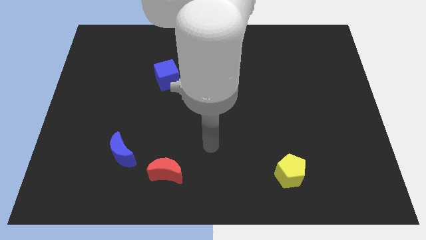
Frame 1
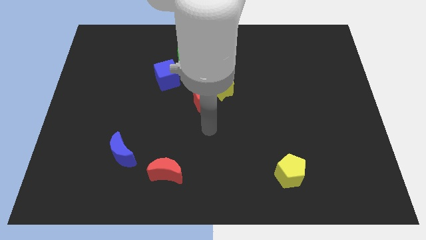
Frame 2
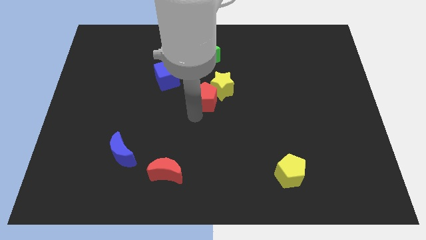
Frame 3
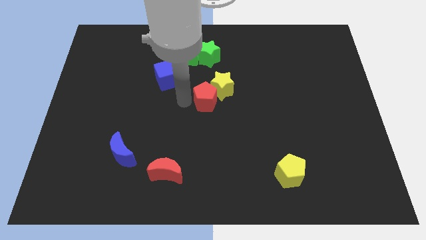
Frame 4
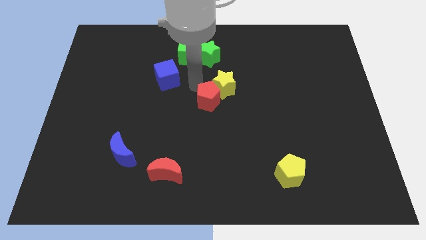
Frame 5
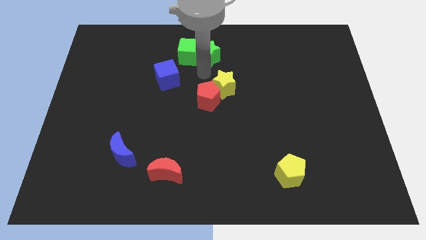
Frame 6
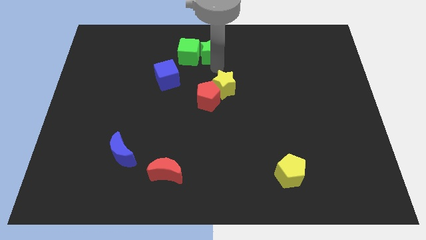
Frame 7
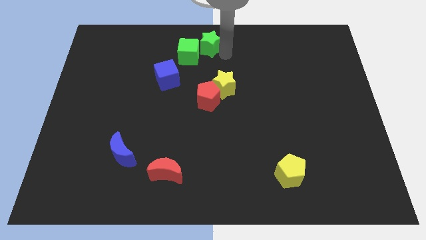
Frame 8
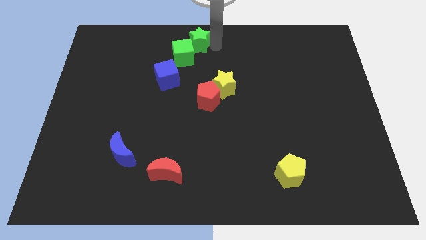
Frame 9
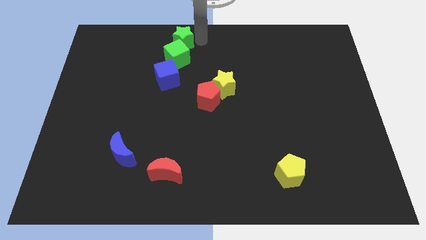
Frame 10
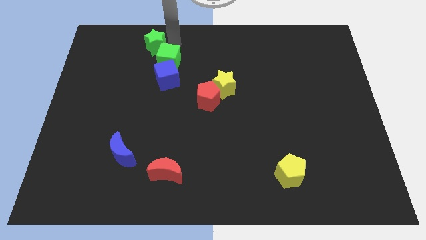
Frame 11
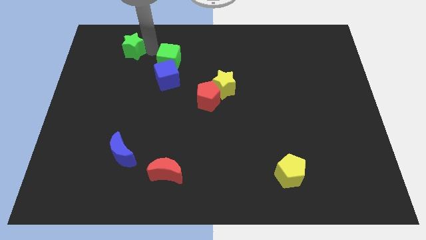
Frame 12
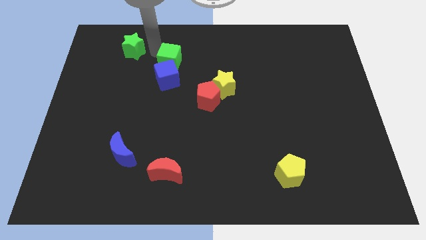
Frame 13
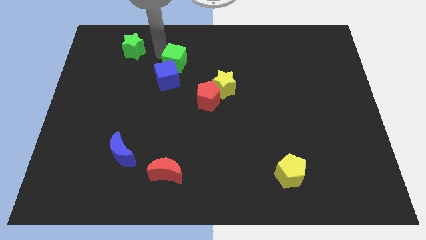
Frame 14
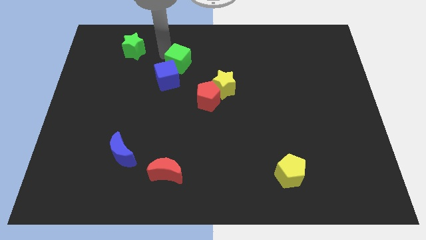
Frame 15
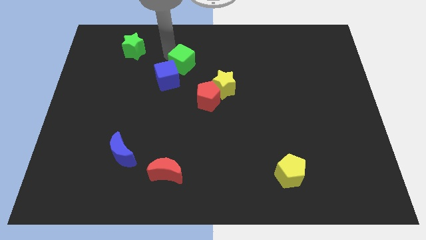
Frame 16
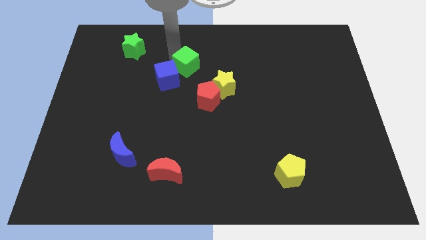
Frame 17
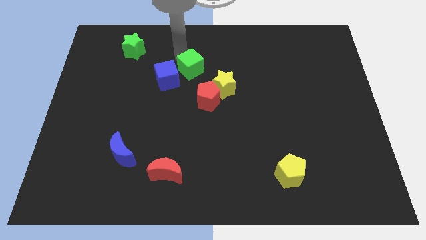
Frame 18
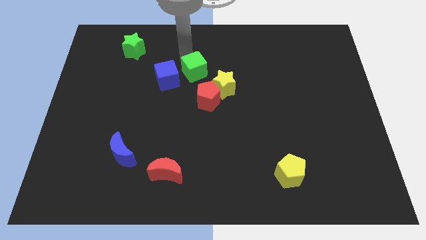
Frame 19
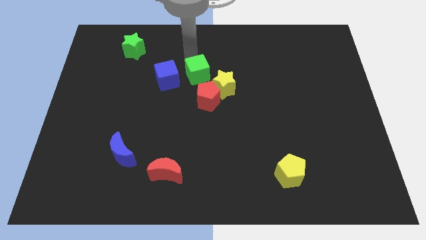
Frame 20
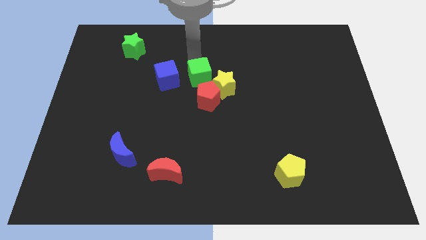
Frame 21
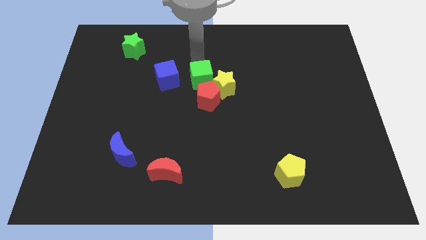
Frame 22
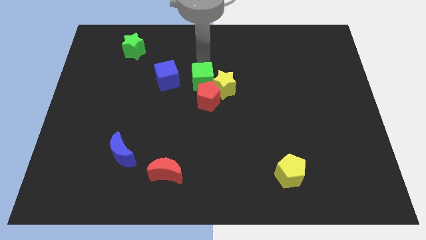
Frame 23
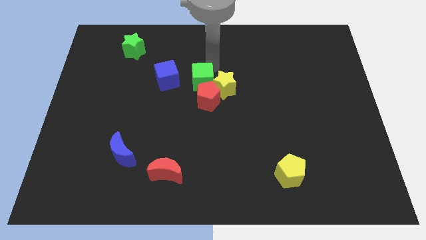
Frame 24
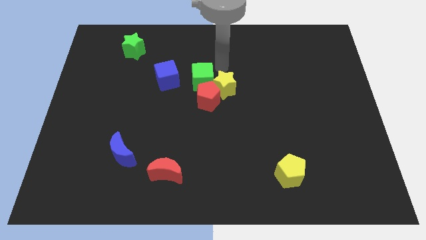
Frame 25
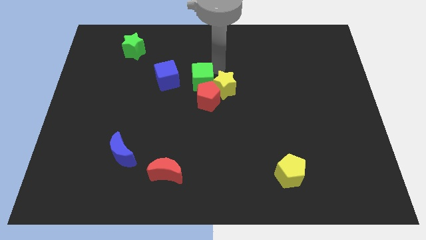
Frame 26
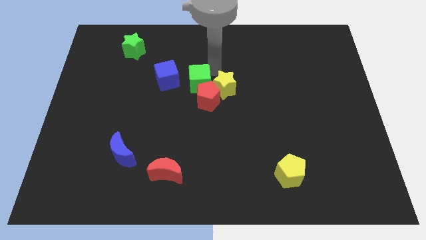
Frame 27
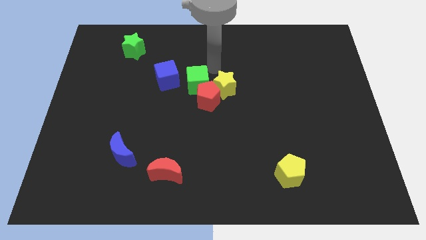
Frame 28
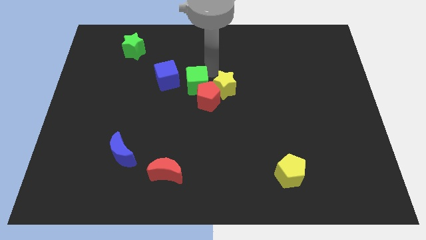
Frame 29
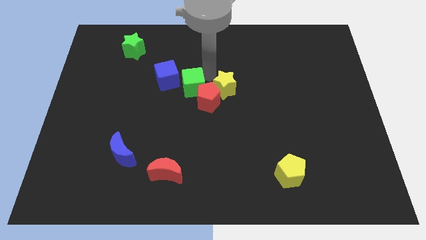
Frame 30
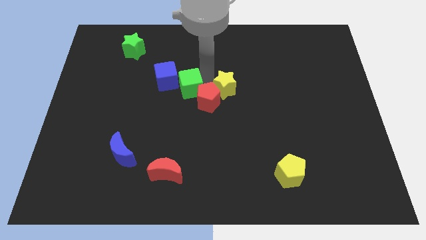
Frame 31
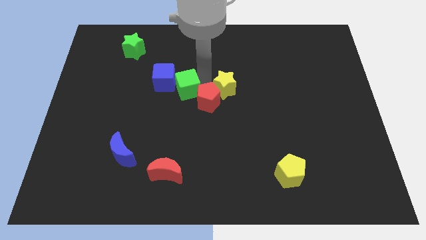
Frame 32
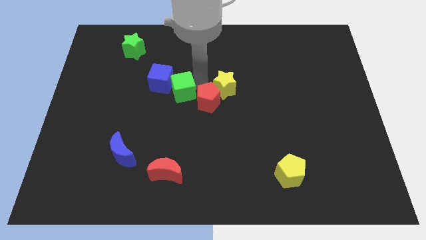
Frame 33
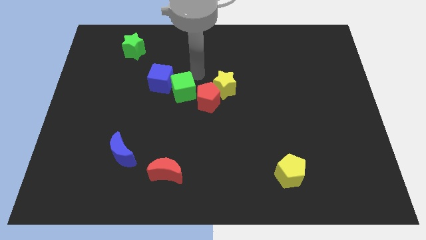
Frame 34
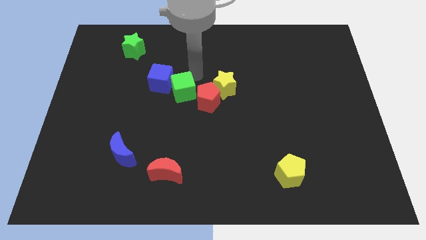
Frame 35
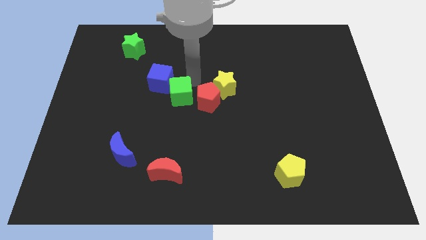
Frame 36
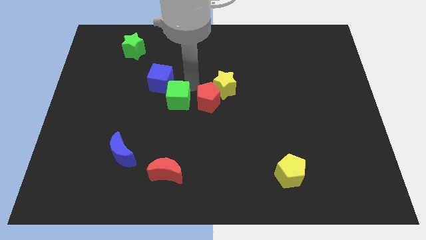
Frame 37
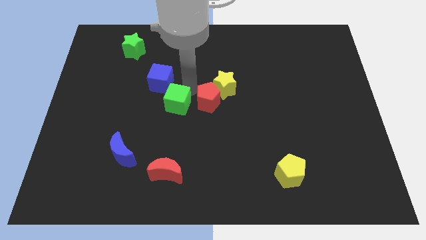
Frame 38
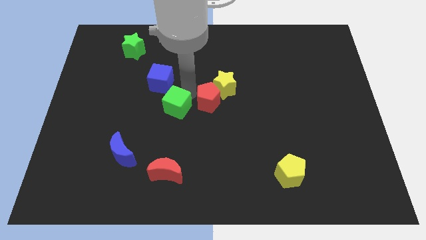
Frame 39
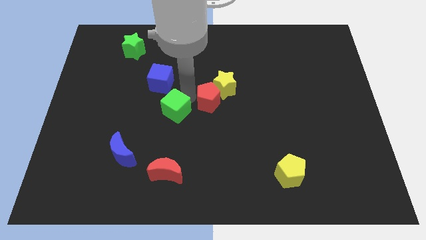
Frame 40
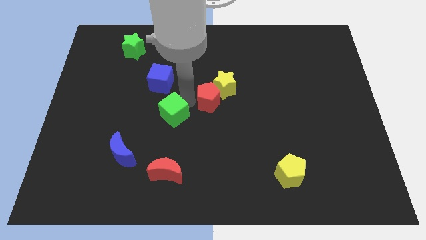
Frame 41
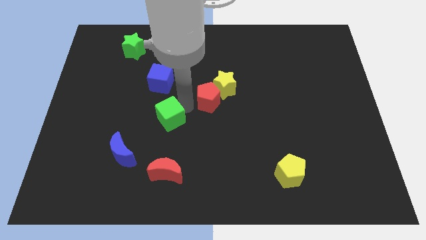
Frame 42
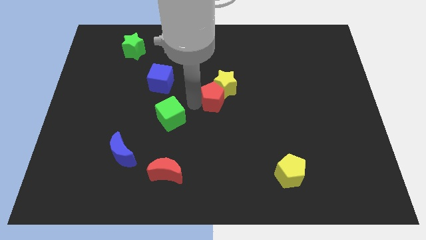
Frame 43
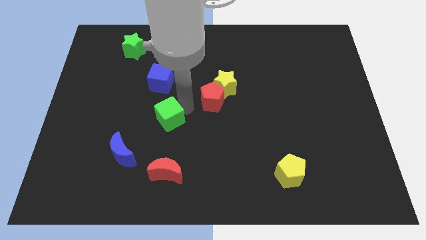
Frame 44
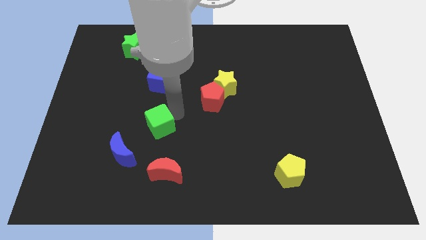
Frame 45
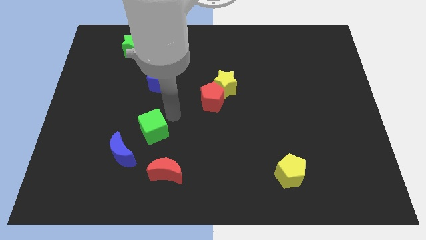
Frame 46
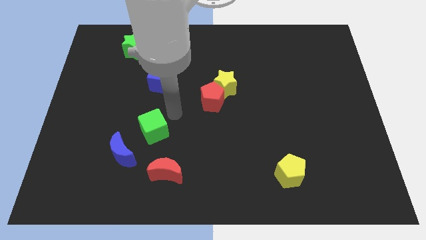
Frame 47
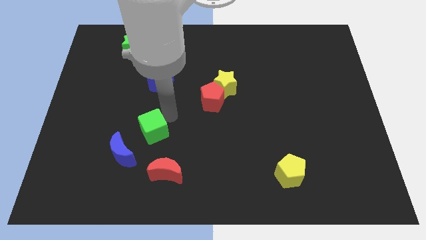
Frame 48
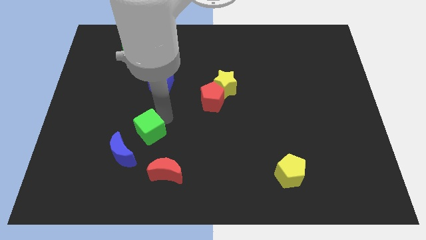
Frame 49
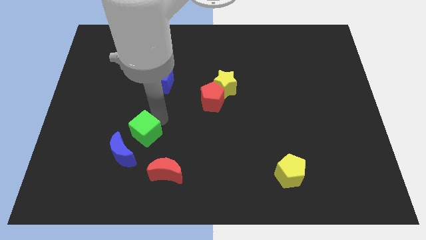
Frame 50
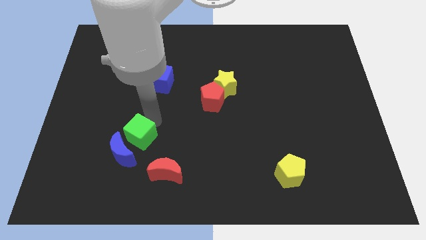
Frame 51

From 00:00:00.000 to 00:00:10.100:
put the green cube close to the blue moon

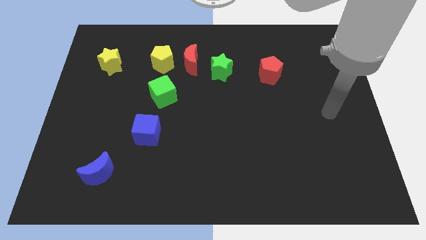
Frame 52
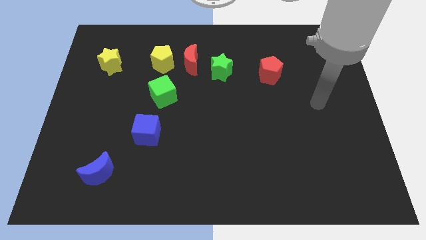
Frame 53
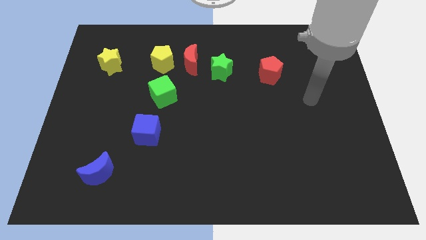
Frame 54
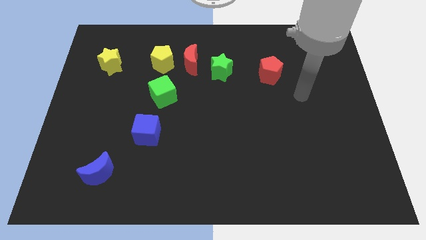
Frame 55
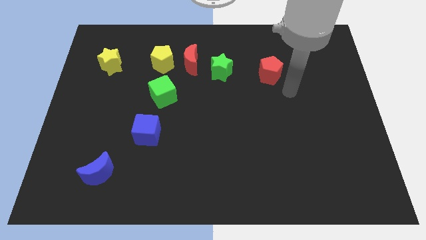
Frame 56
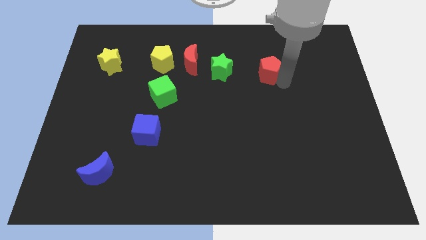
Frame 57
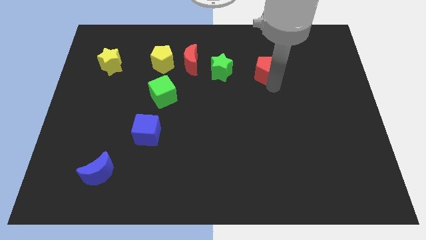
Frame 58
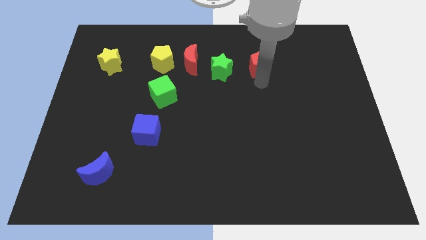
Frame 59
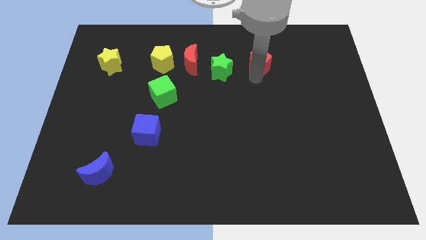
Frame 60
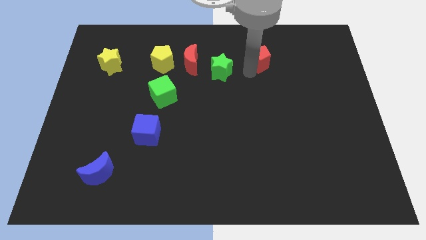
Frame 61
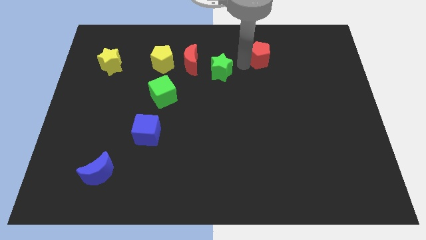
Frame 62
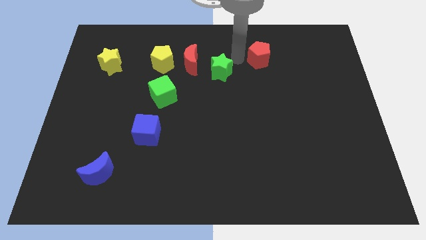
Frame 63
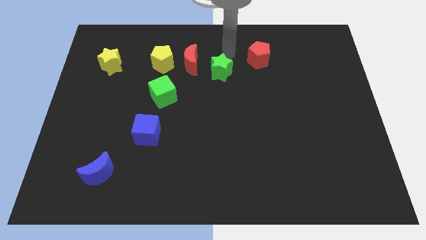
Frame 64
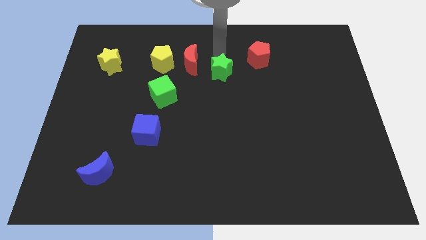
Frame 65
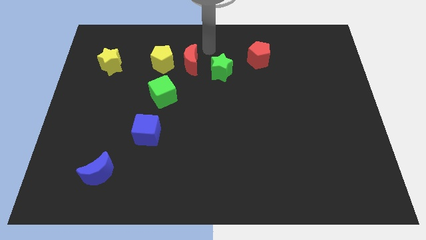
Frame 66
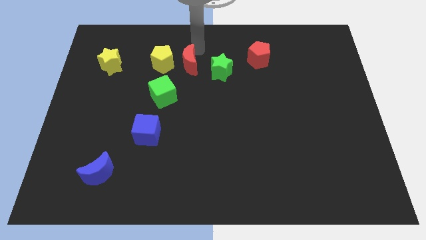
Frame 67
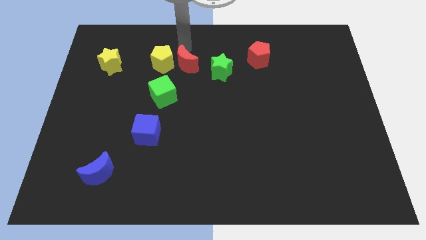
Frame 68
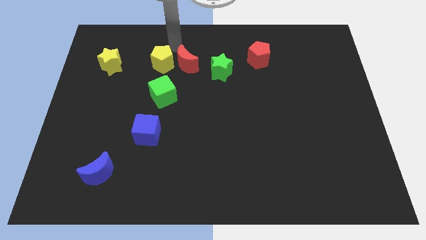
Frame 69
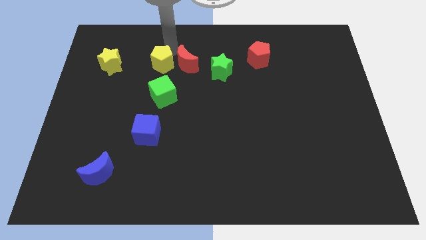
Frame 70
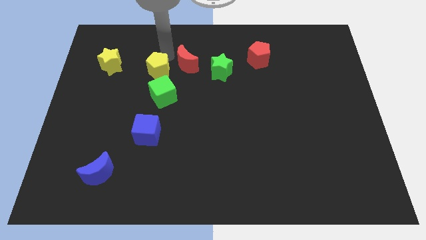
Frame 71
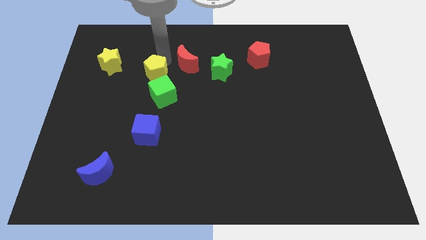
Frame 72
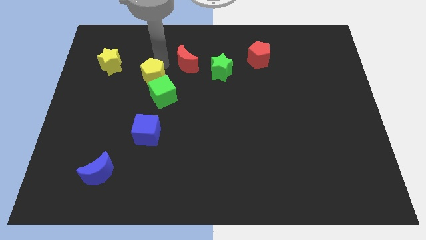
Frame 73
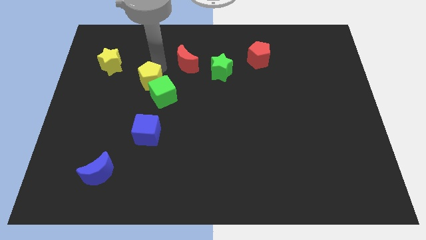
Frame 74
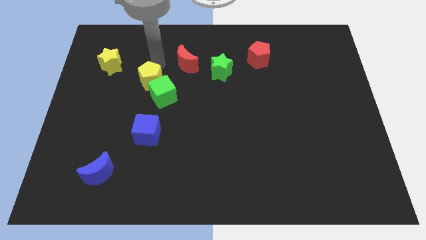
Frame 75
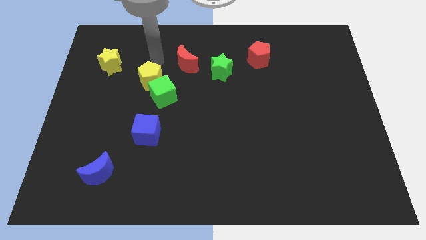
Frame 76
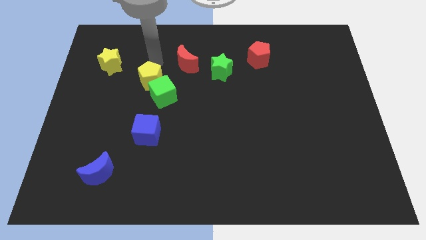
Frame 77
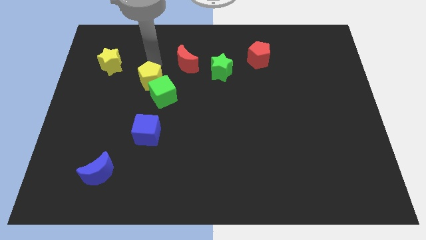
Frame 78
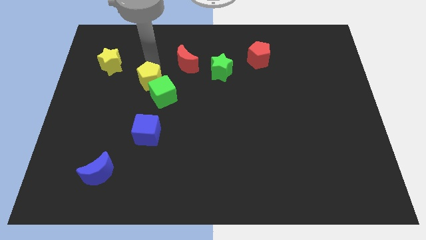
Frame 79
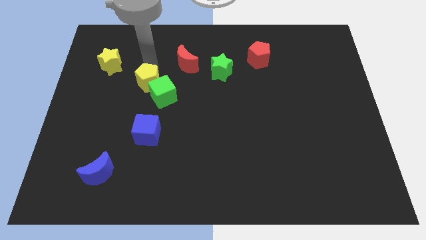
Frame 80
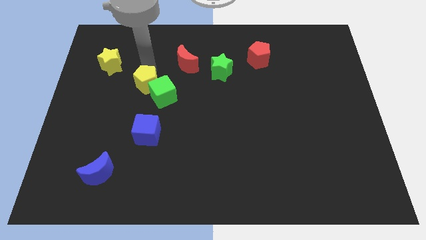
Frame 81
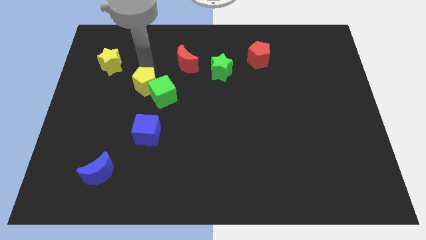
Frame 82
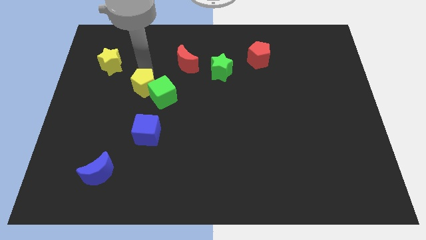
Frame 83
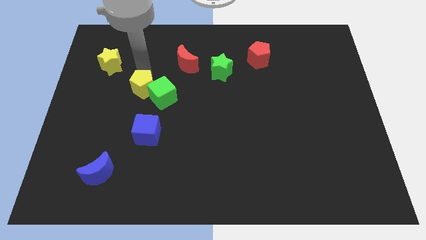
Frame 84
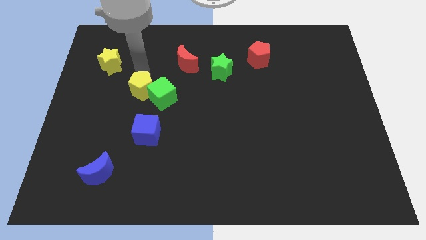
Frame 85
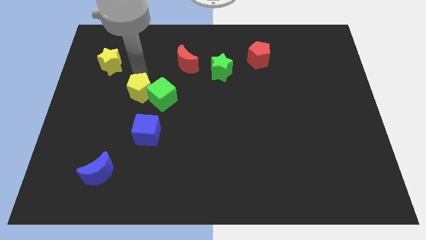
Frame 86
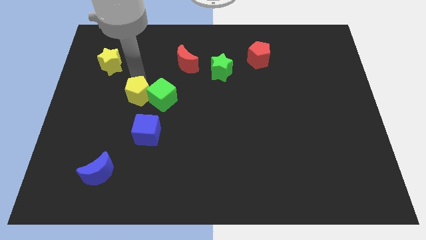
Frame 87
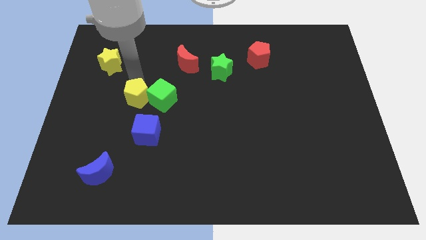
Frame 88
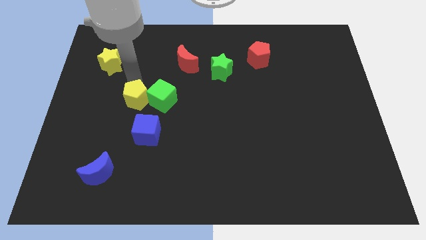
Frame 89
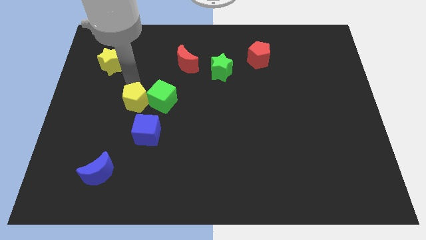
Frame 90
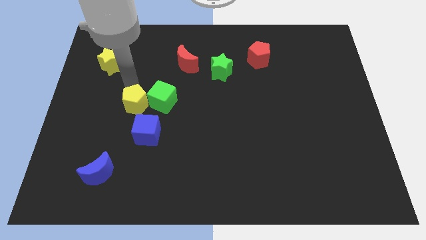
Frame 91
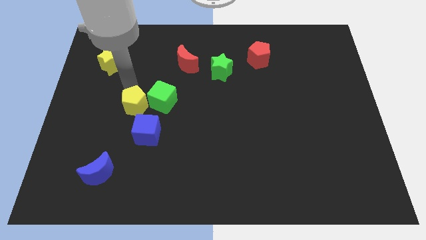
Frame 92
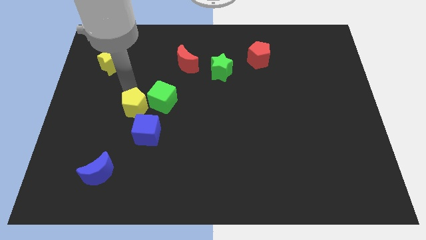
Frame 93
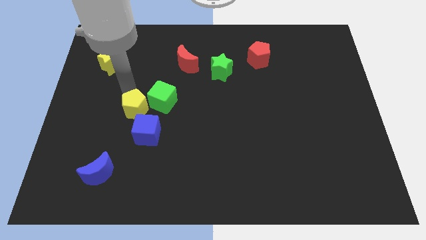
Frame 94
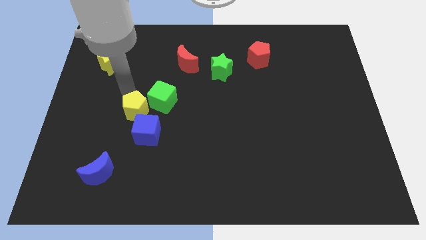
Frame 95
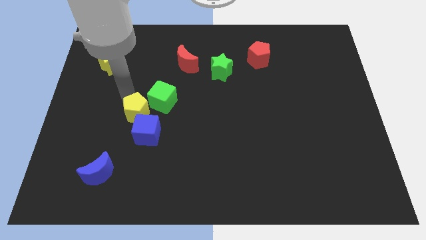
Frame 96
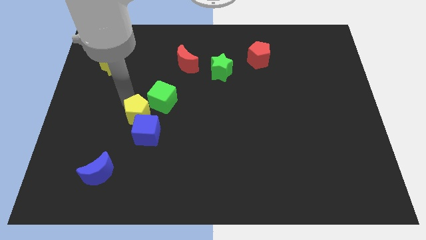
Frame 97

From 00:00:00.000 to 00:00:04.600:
move the yellow pentagon to the blue cube
